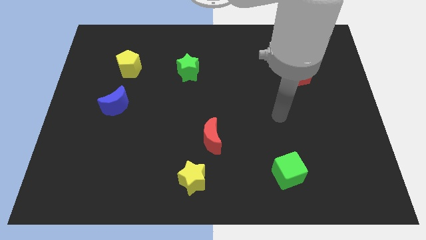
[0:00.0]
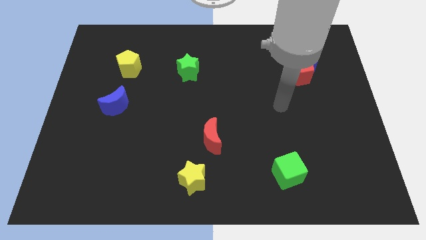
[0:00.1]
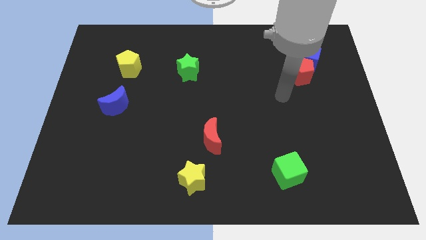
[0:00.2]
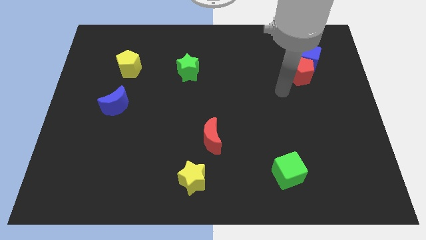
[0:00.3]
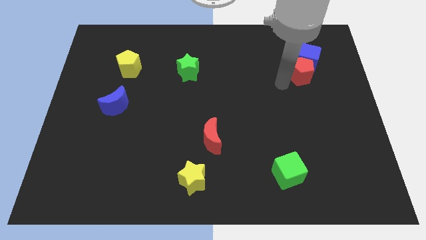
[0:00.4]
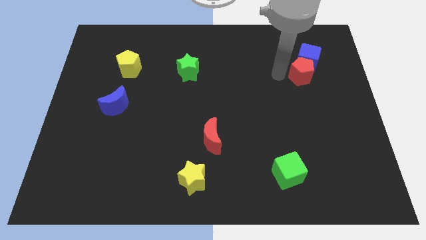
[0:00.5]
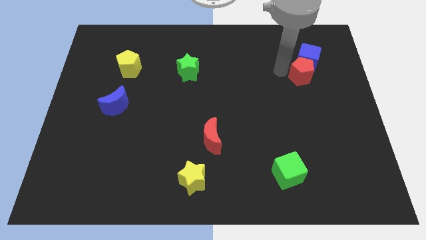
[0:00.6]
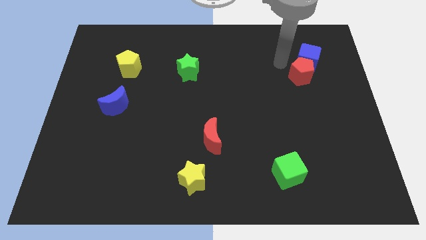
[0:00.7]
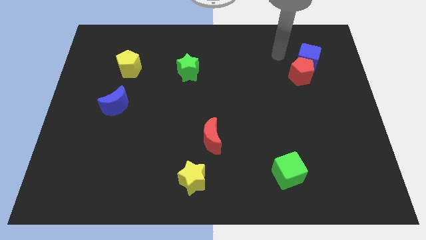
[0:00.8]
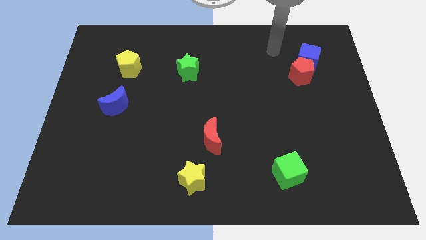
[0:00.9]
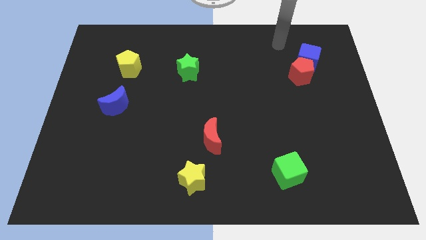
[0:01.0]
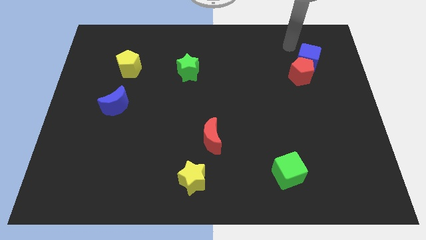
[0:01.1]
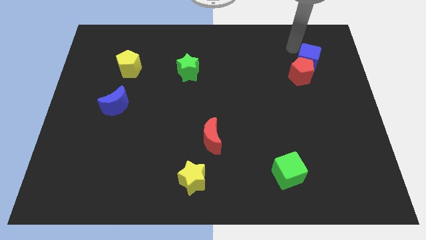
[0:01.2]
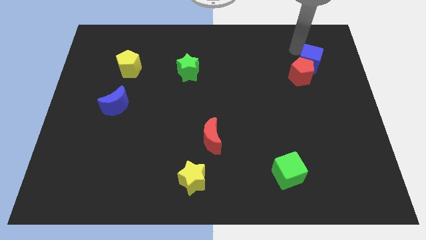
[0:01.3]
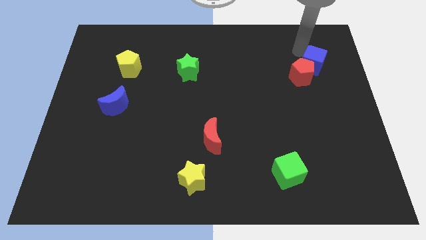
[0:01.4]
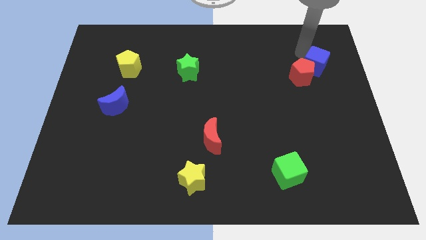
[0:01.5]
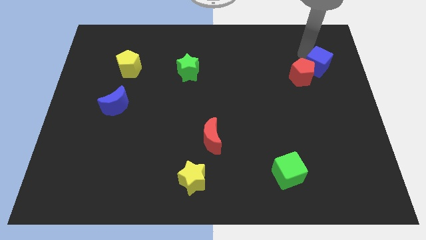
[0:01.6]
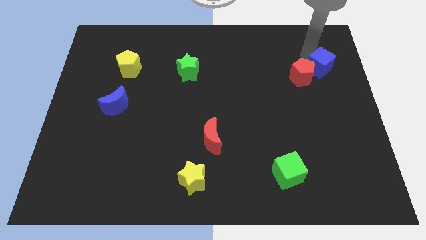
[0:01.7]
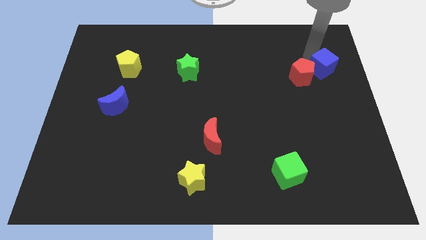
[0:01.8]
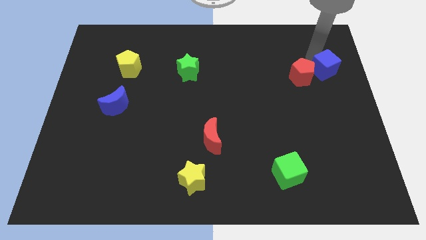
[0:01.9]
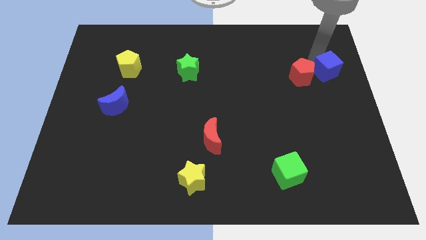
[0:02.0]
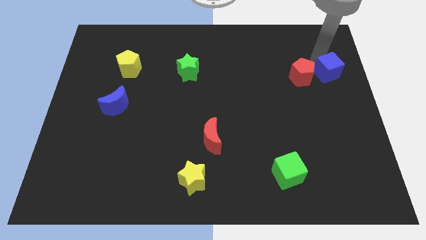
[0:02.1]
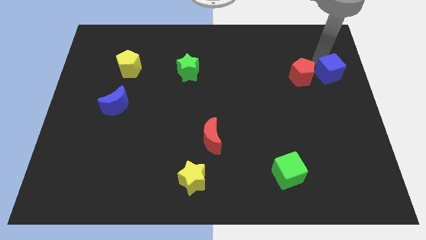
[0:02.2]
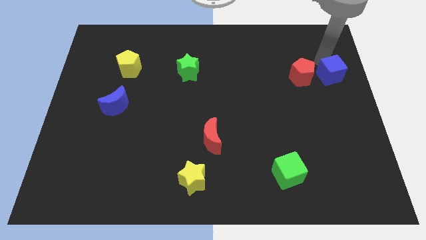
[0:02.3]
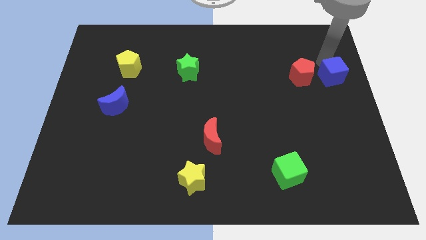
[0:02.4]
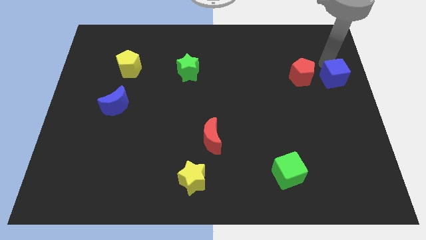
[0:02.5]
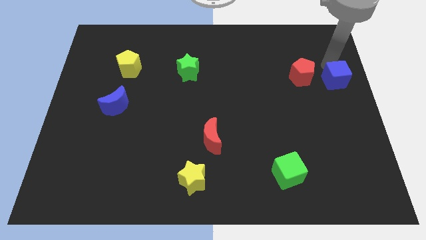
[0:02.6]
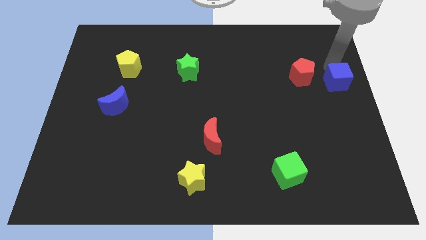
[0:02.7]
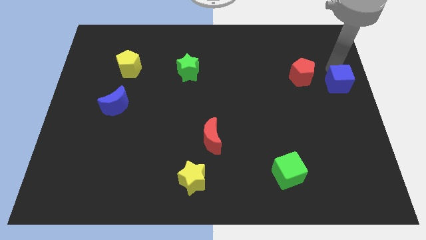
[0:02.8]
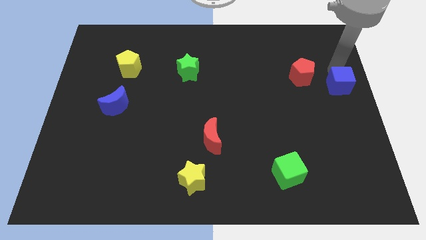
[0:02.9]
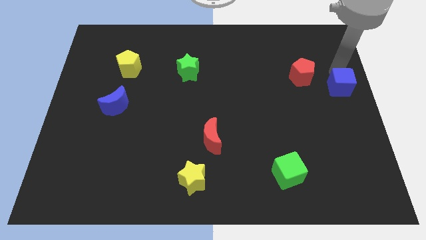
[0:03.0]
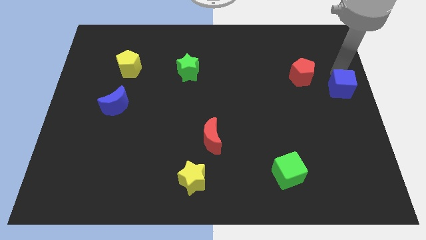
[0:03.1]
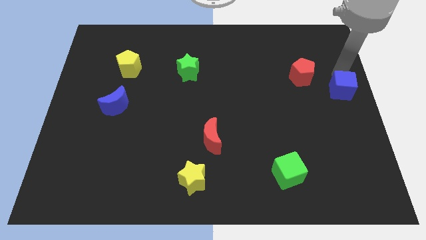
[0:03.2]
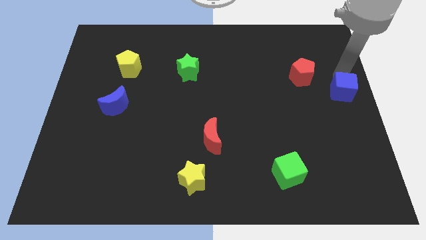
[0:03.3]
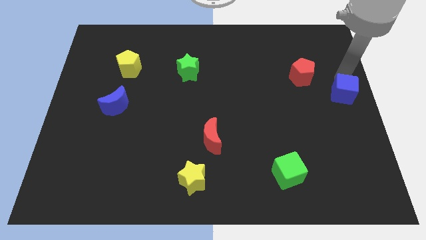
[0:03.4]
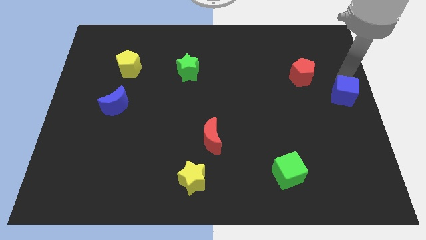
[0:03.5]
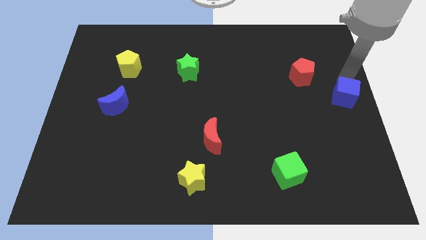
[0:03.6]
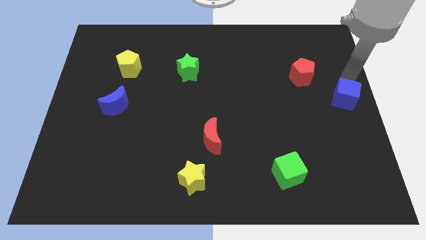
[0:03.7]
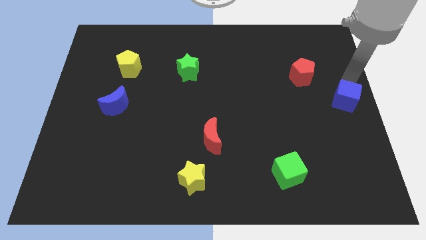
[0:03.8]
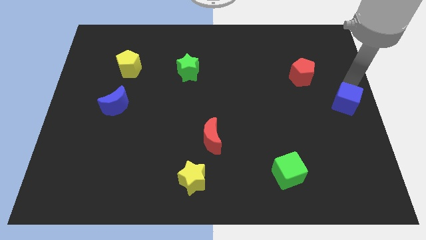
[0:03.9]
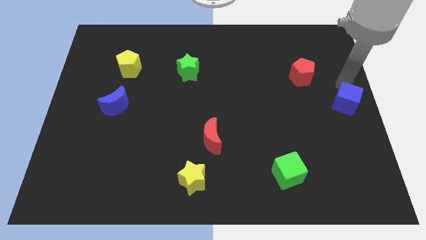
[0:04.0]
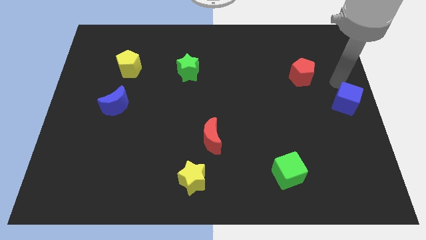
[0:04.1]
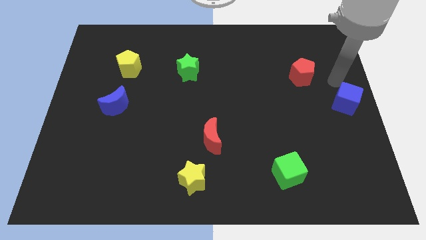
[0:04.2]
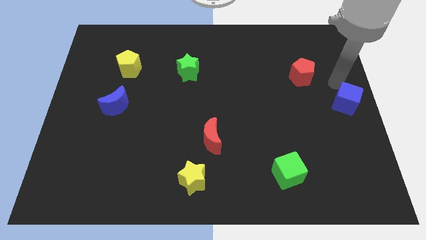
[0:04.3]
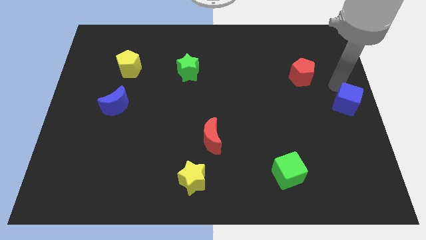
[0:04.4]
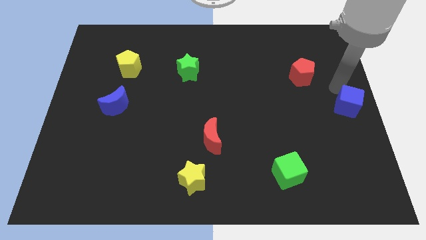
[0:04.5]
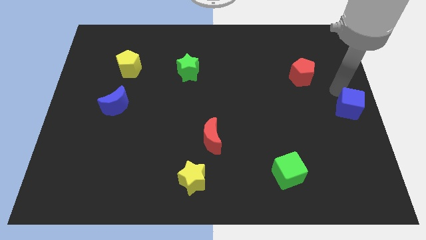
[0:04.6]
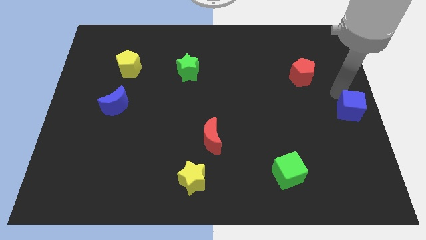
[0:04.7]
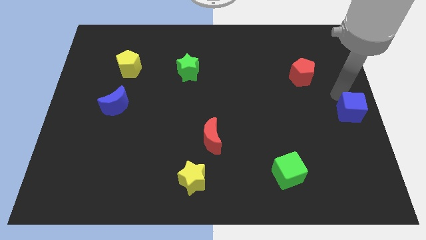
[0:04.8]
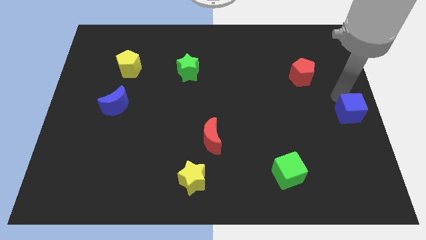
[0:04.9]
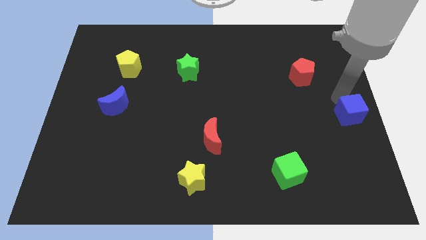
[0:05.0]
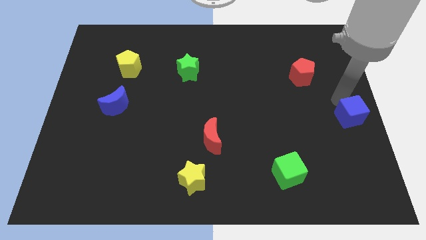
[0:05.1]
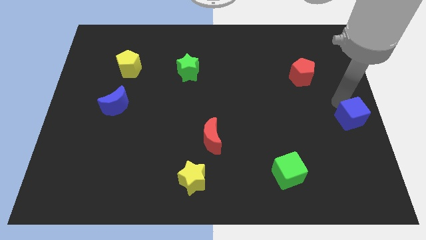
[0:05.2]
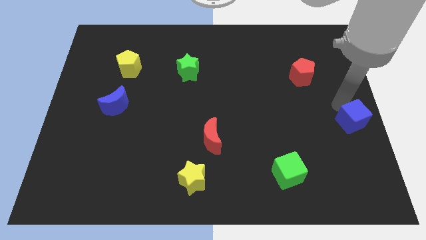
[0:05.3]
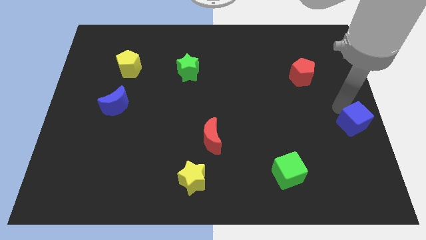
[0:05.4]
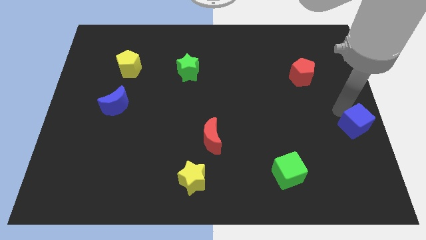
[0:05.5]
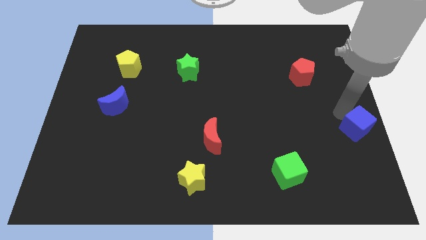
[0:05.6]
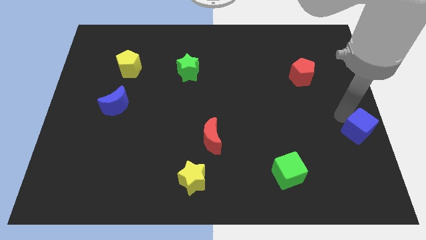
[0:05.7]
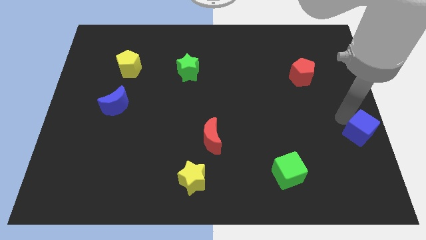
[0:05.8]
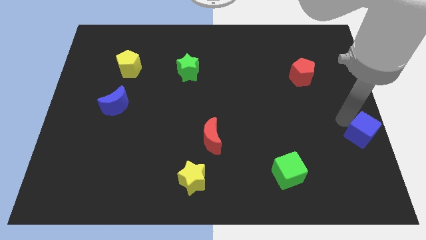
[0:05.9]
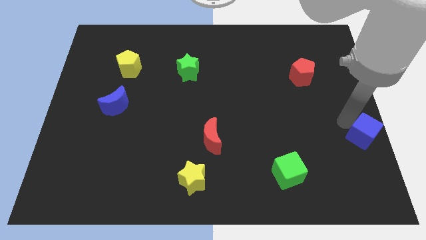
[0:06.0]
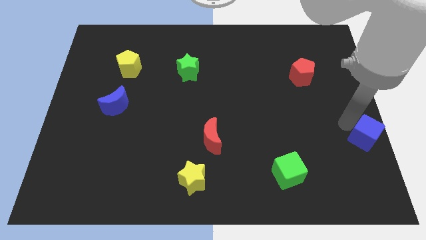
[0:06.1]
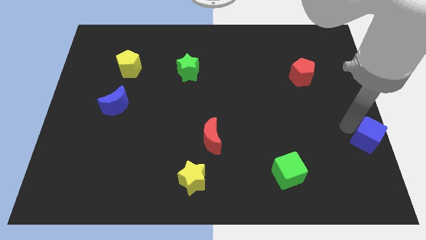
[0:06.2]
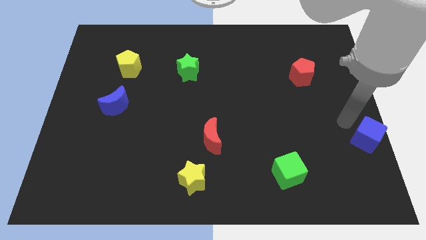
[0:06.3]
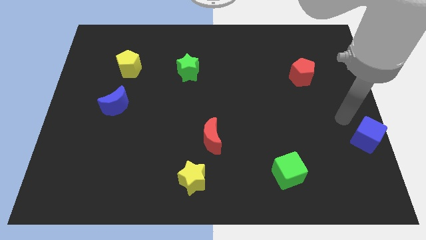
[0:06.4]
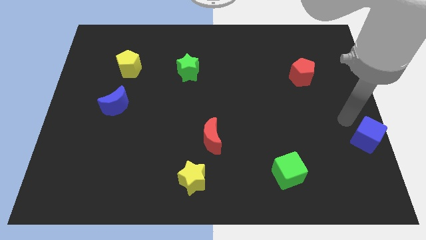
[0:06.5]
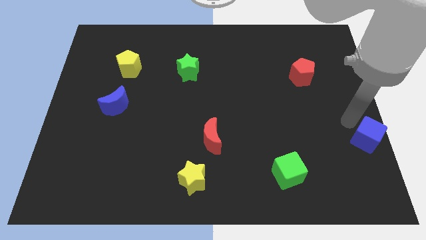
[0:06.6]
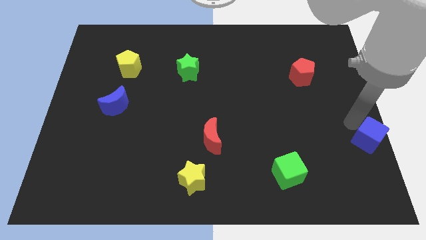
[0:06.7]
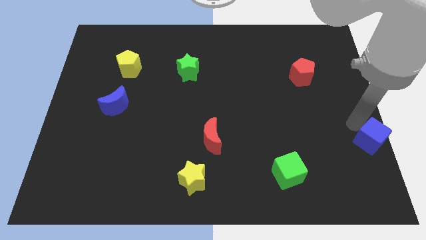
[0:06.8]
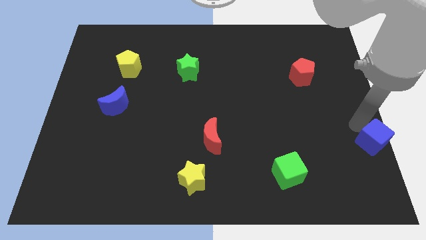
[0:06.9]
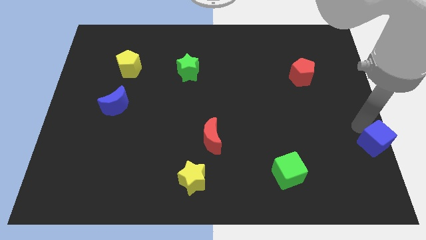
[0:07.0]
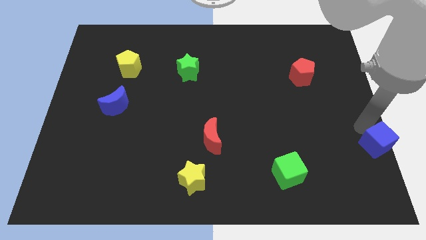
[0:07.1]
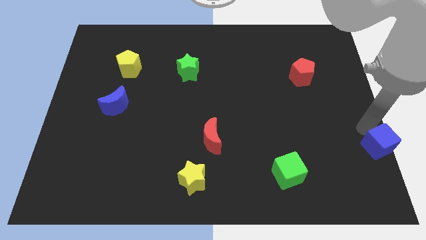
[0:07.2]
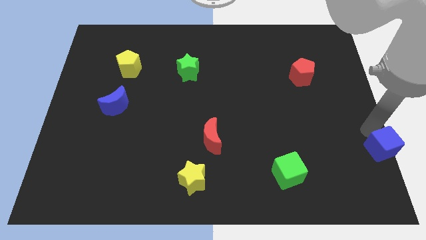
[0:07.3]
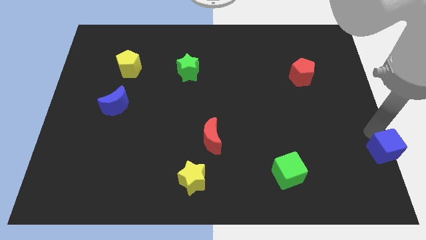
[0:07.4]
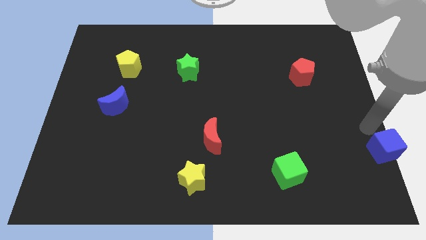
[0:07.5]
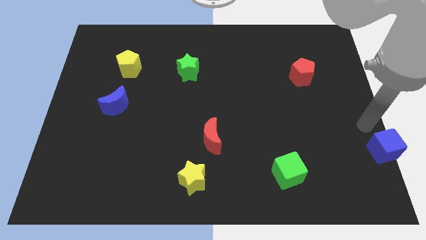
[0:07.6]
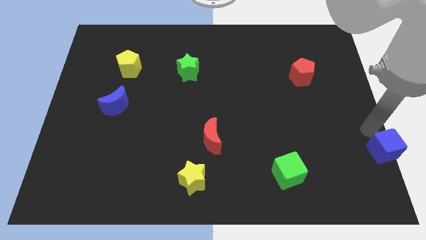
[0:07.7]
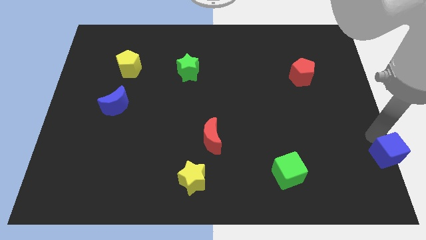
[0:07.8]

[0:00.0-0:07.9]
slide the blue cube to the bottom right of the board
